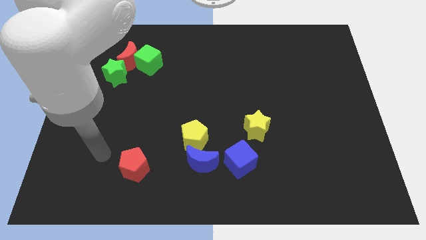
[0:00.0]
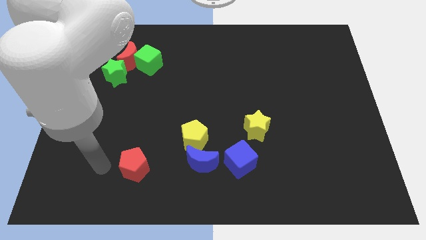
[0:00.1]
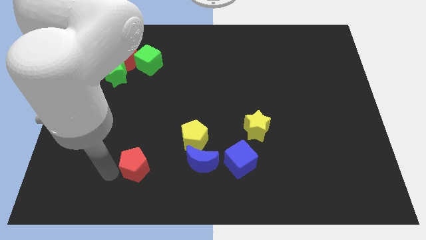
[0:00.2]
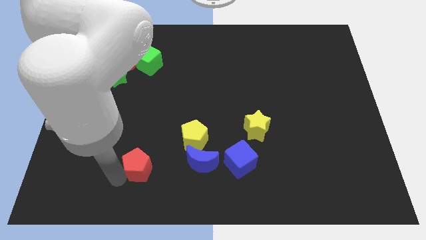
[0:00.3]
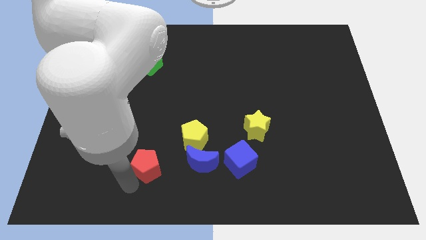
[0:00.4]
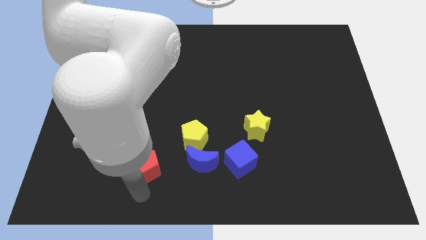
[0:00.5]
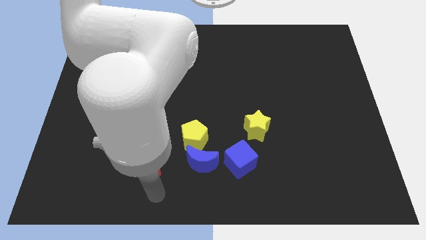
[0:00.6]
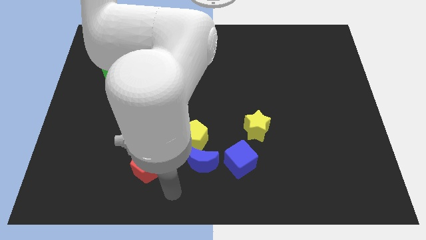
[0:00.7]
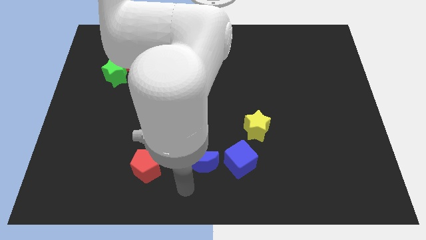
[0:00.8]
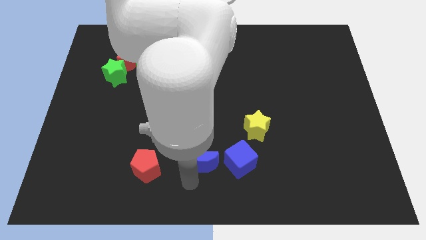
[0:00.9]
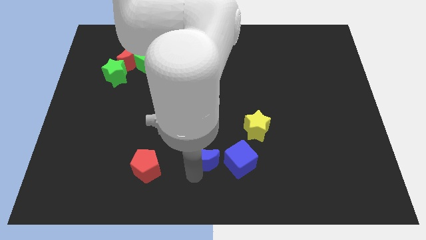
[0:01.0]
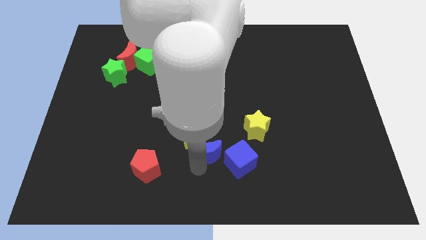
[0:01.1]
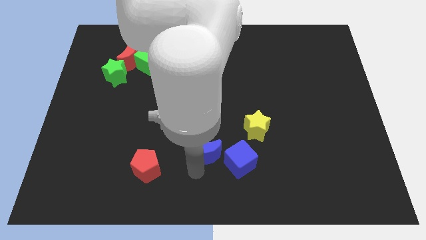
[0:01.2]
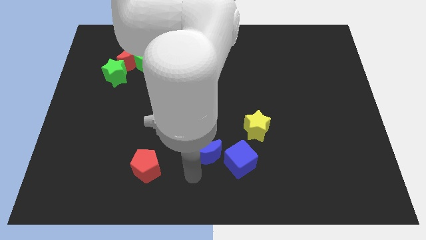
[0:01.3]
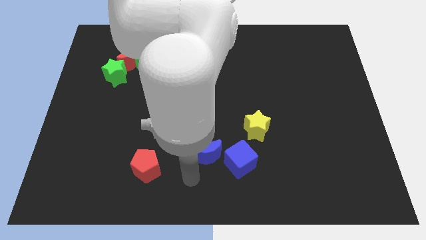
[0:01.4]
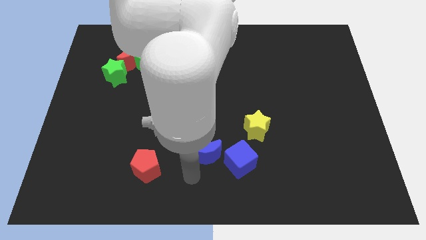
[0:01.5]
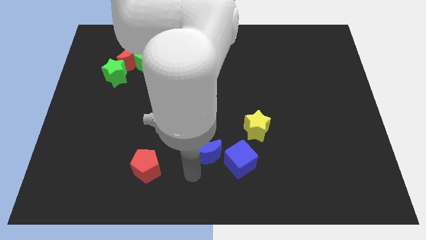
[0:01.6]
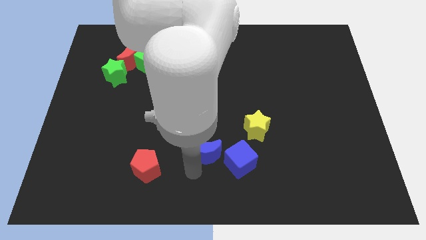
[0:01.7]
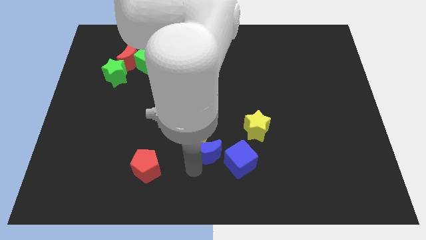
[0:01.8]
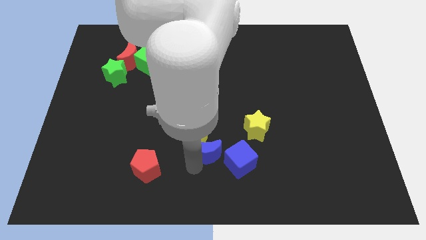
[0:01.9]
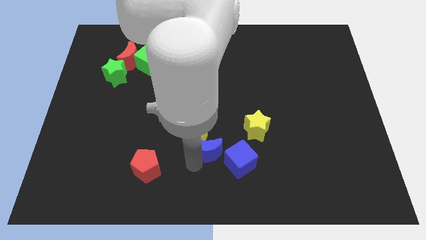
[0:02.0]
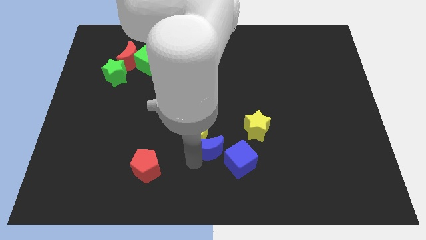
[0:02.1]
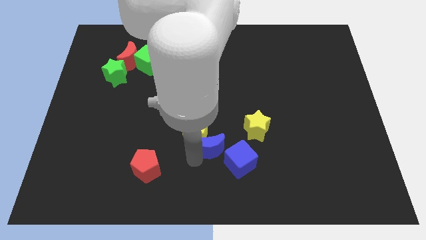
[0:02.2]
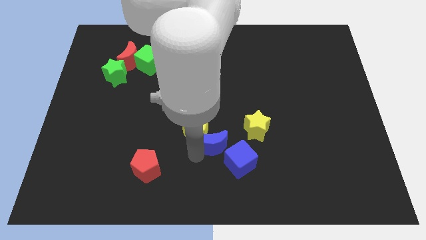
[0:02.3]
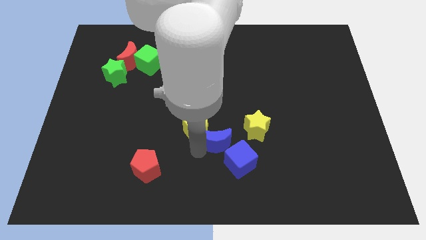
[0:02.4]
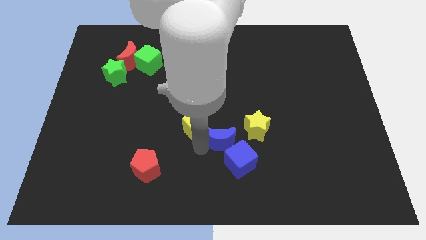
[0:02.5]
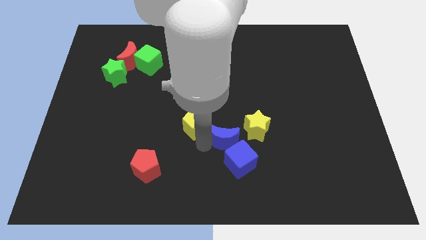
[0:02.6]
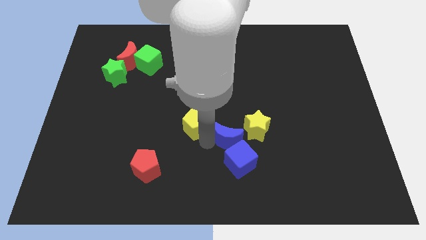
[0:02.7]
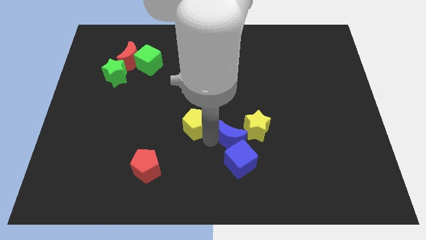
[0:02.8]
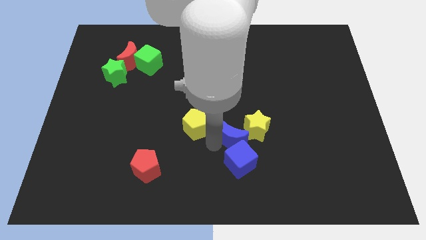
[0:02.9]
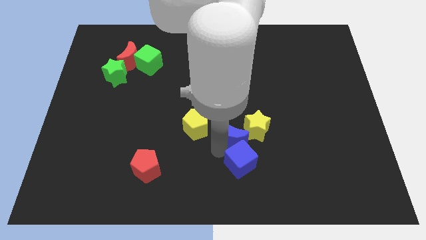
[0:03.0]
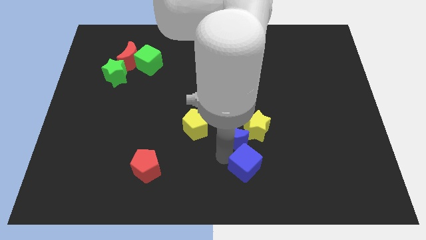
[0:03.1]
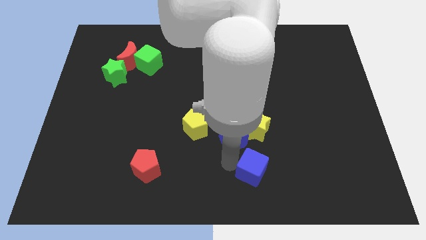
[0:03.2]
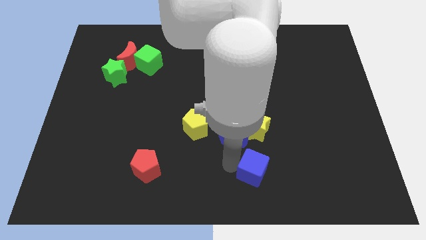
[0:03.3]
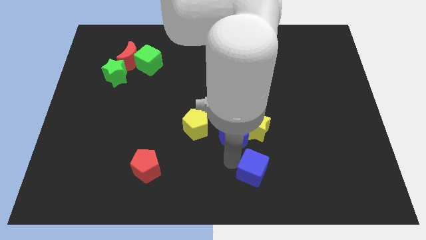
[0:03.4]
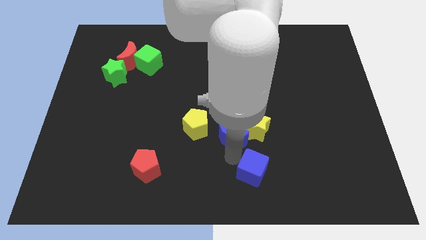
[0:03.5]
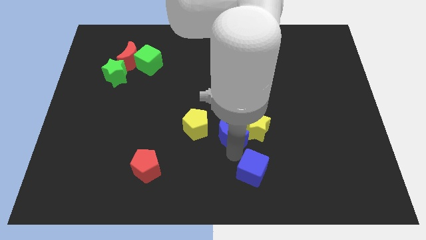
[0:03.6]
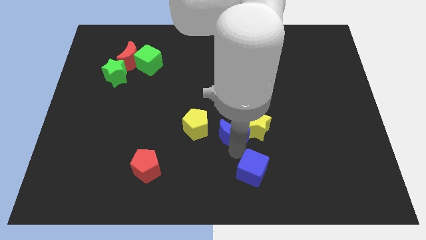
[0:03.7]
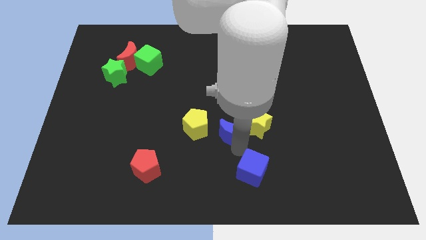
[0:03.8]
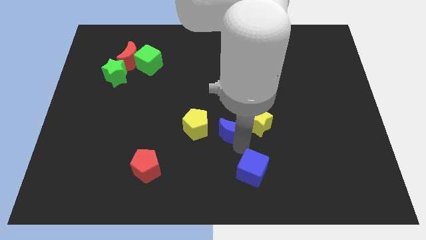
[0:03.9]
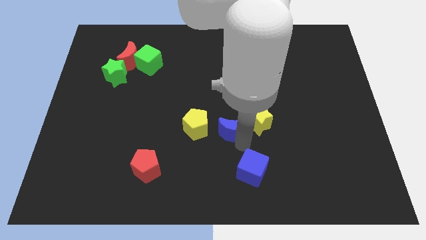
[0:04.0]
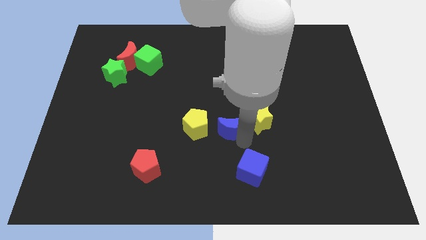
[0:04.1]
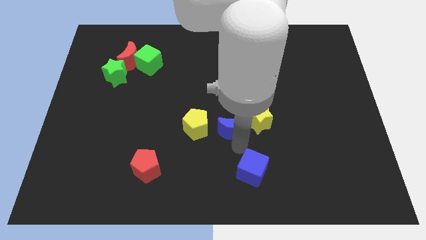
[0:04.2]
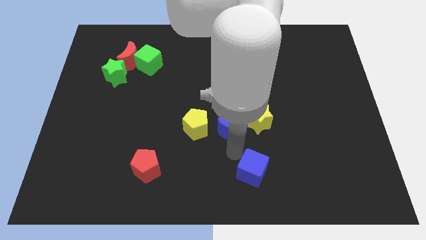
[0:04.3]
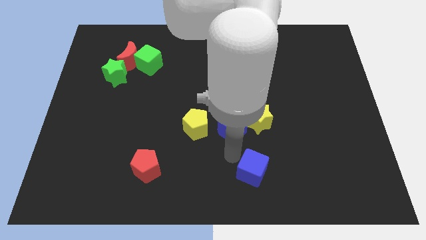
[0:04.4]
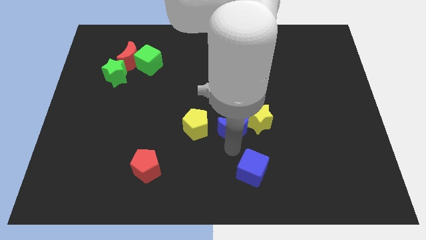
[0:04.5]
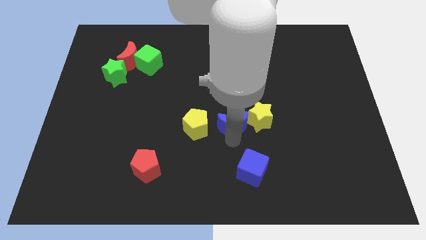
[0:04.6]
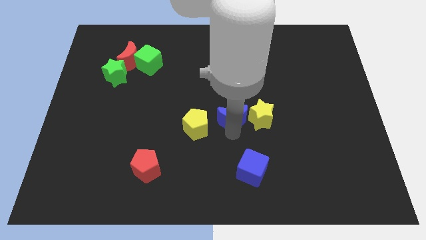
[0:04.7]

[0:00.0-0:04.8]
move the blue moon diagonally up and to the left of the yellow star

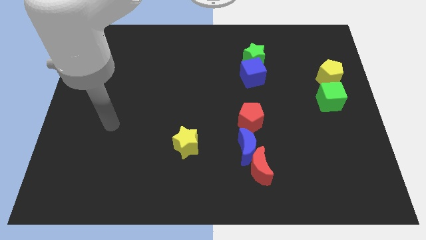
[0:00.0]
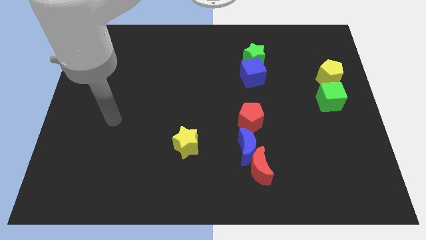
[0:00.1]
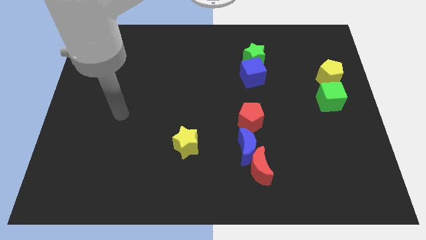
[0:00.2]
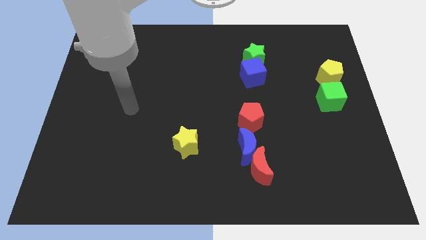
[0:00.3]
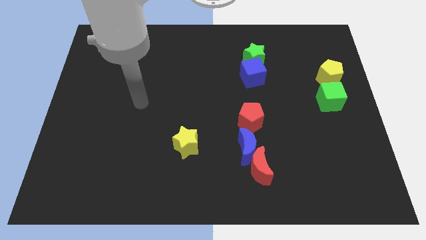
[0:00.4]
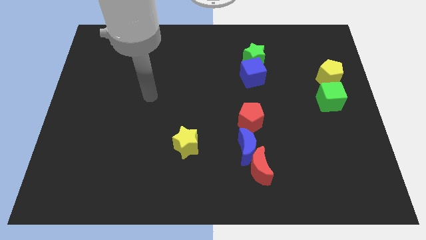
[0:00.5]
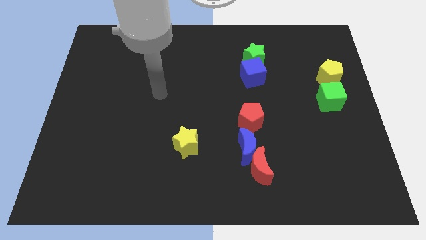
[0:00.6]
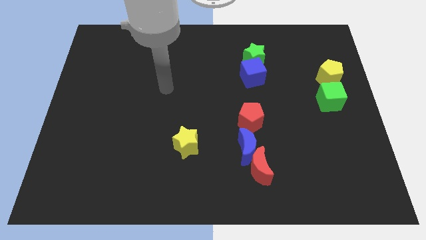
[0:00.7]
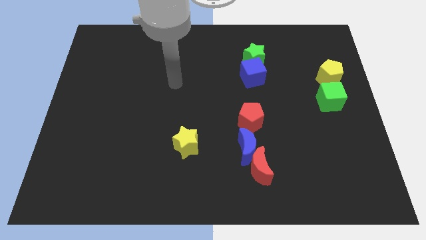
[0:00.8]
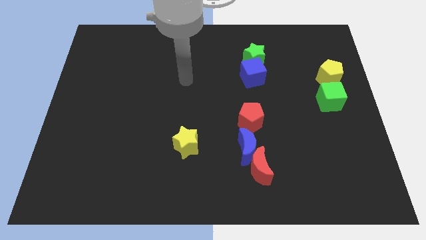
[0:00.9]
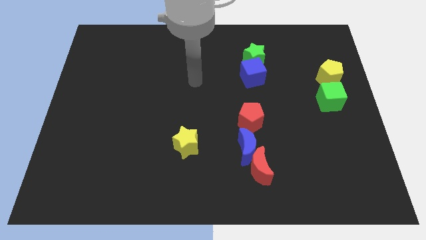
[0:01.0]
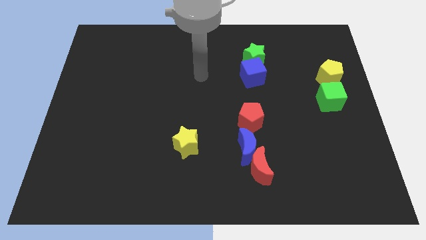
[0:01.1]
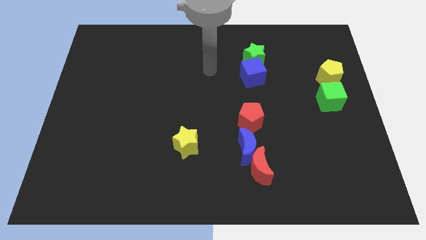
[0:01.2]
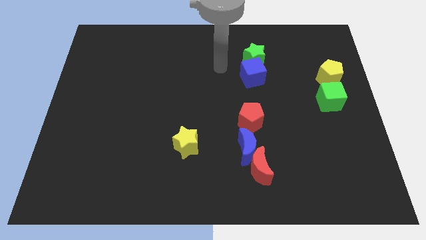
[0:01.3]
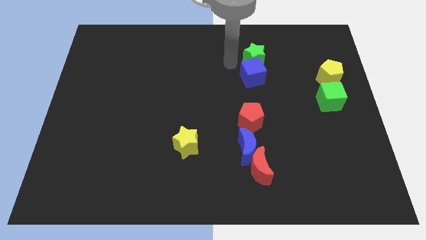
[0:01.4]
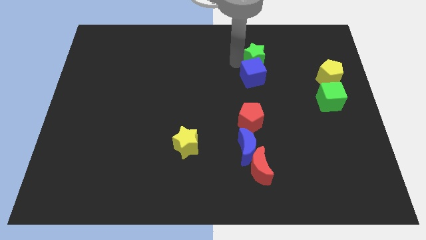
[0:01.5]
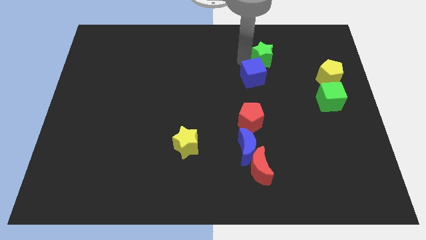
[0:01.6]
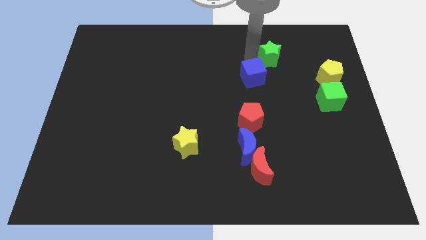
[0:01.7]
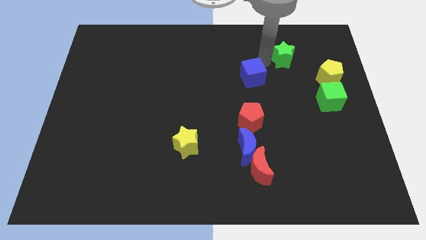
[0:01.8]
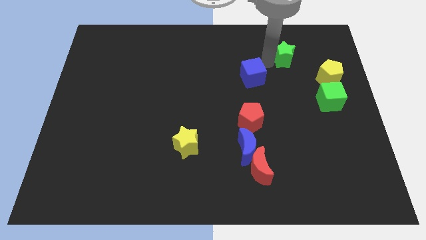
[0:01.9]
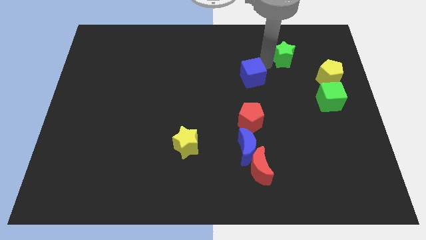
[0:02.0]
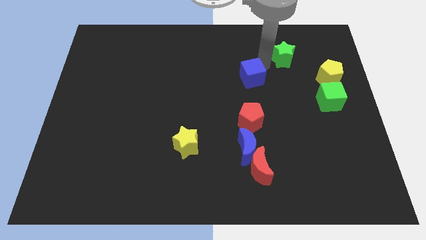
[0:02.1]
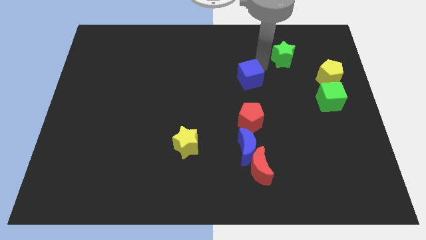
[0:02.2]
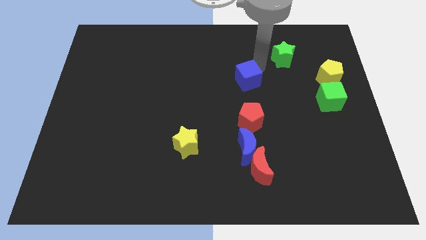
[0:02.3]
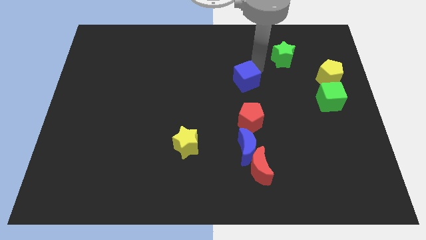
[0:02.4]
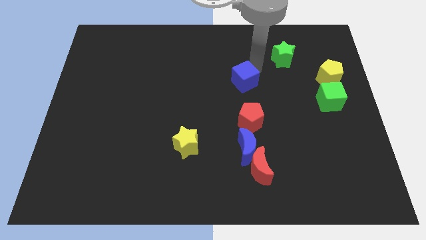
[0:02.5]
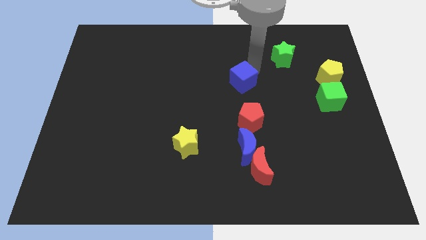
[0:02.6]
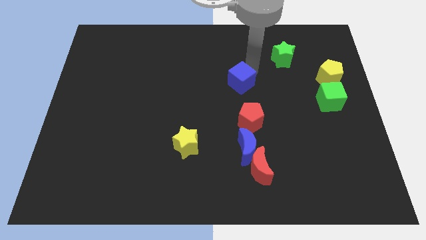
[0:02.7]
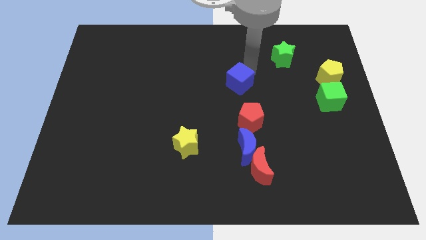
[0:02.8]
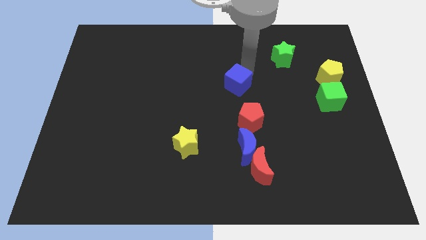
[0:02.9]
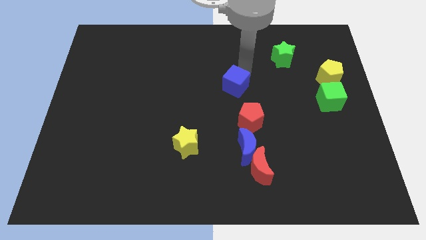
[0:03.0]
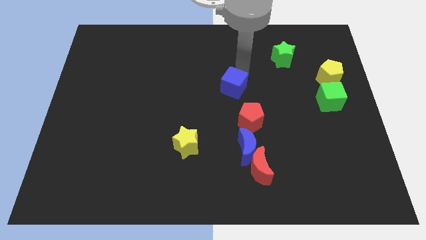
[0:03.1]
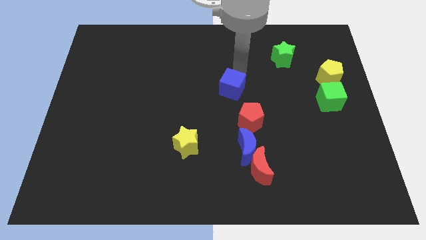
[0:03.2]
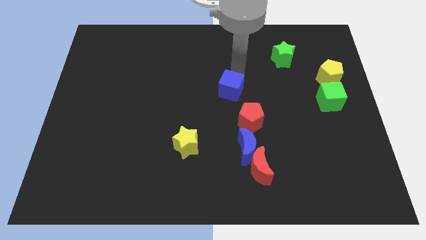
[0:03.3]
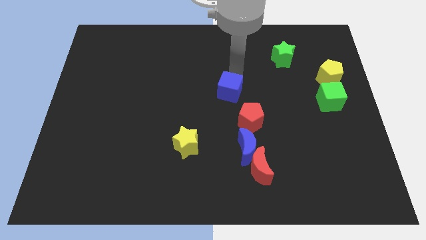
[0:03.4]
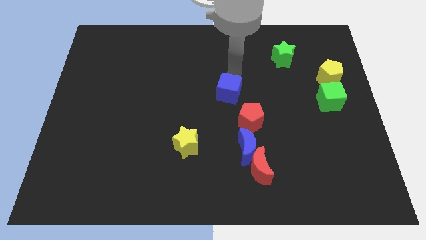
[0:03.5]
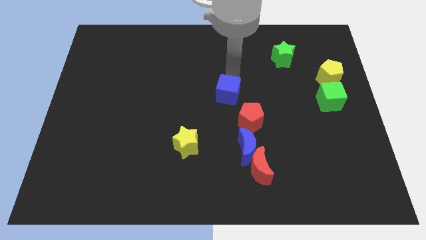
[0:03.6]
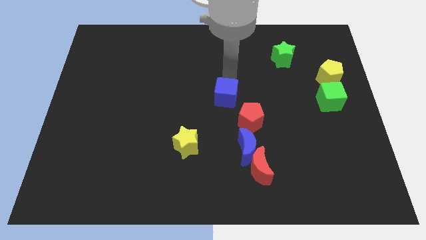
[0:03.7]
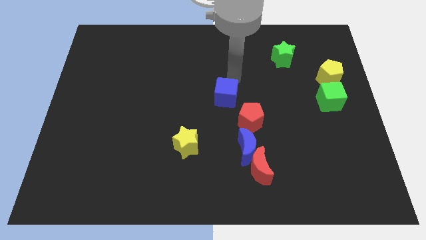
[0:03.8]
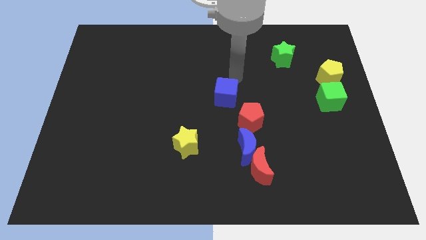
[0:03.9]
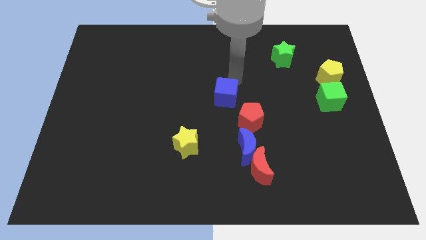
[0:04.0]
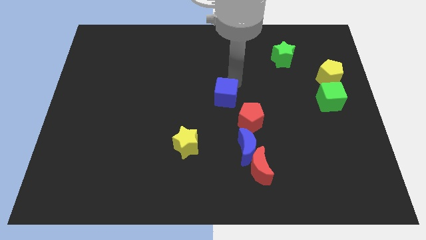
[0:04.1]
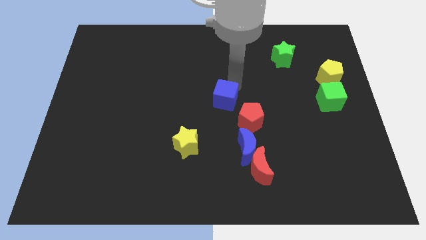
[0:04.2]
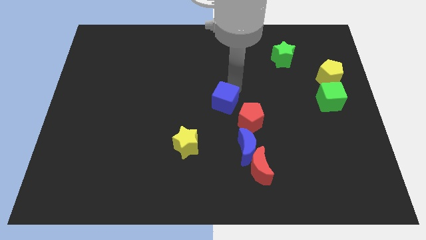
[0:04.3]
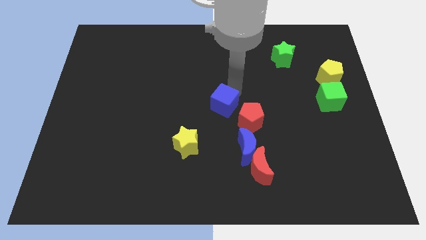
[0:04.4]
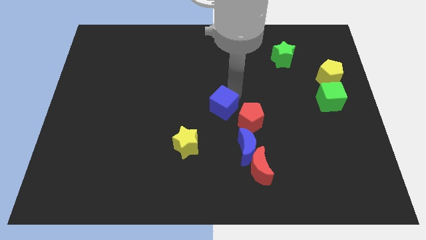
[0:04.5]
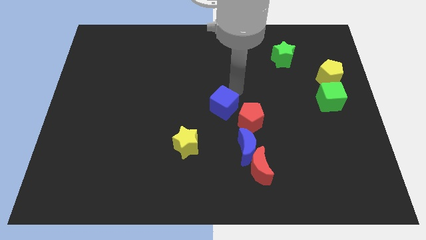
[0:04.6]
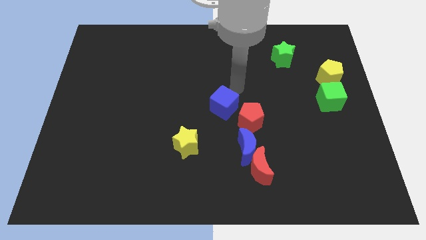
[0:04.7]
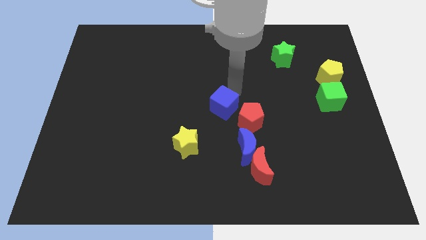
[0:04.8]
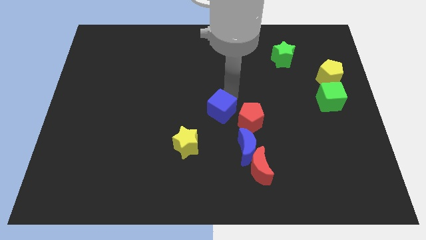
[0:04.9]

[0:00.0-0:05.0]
put the blue cube to the top right side of the yellow star
